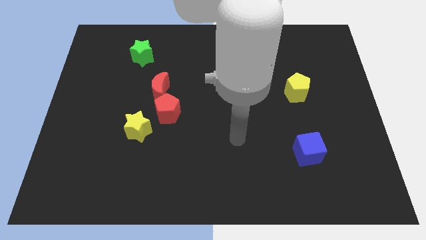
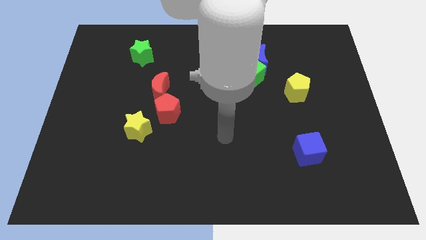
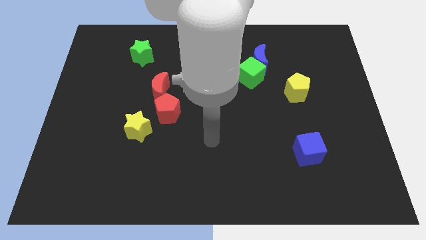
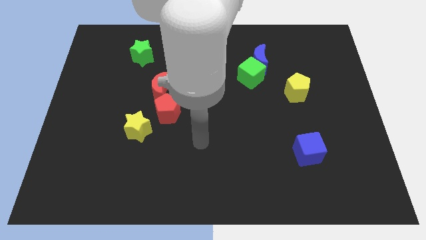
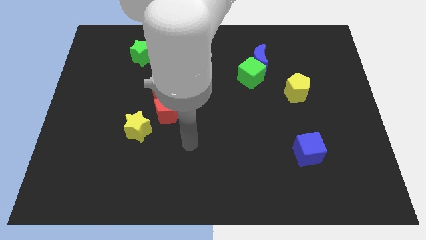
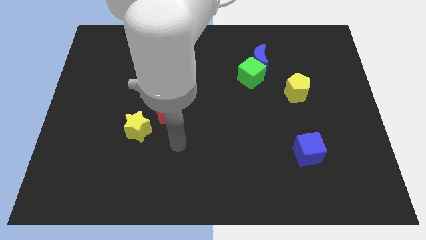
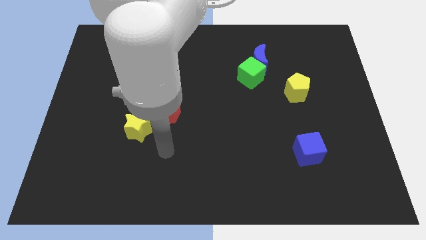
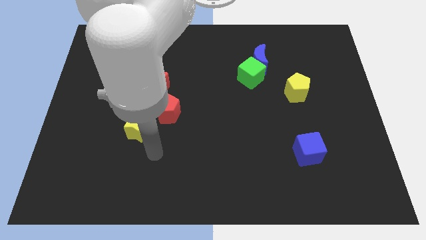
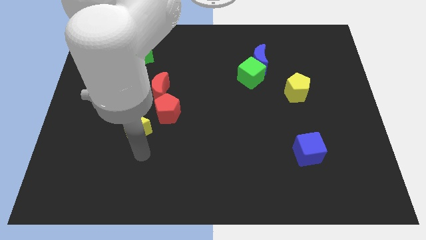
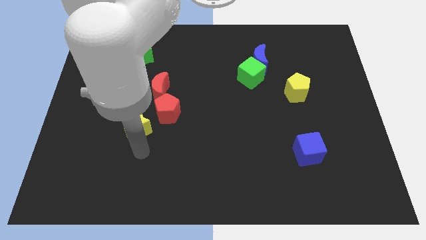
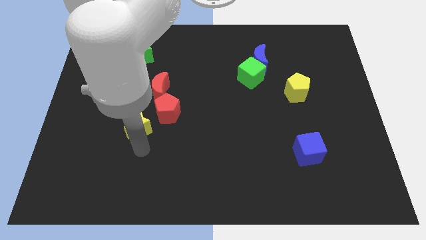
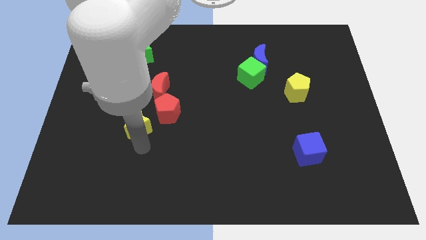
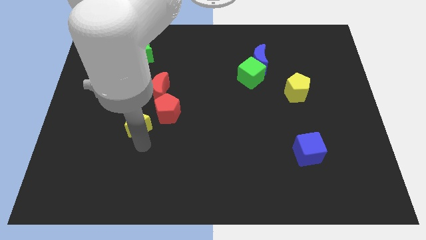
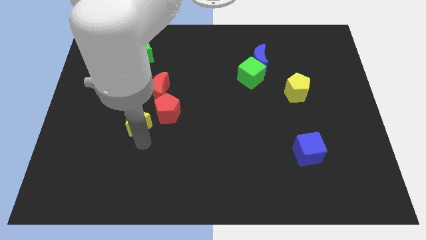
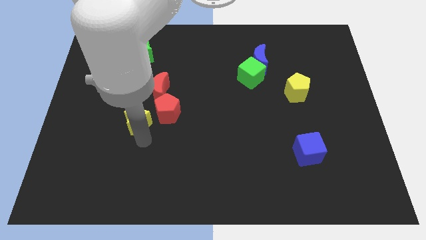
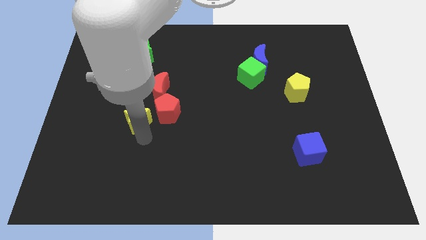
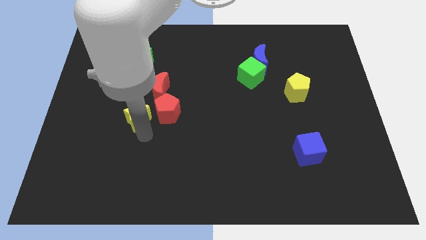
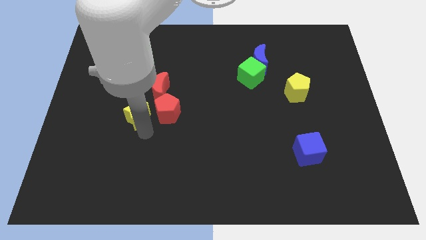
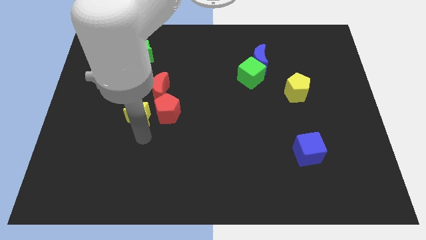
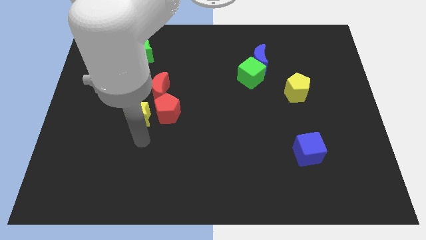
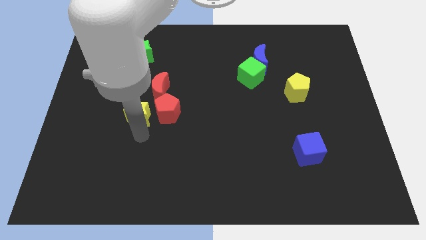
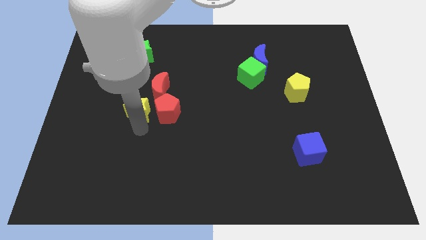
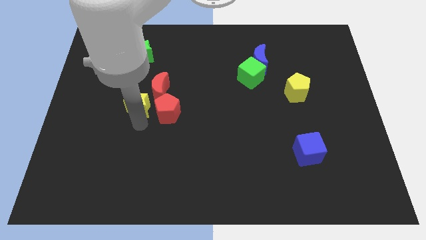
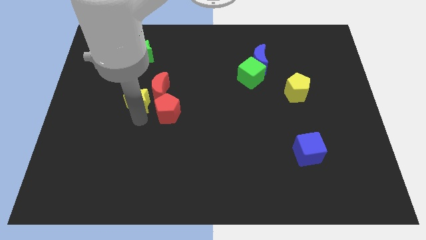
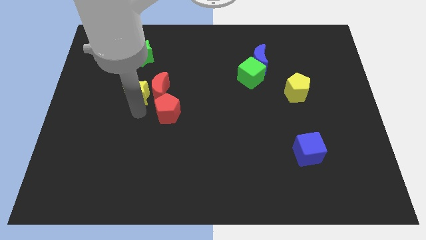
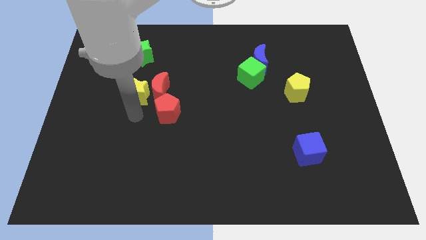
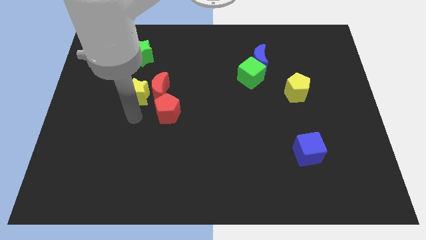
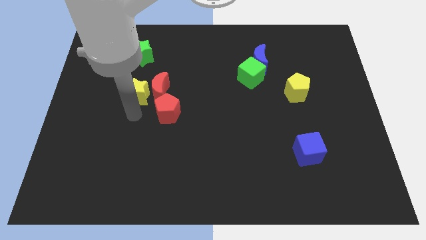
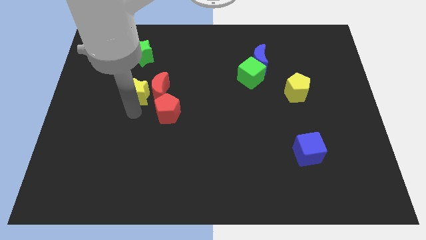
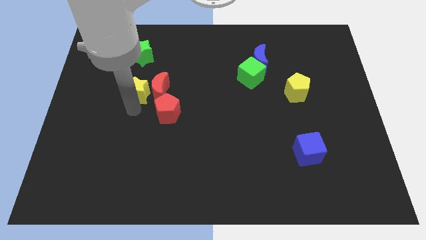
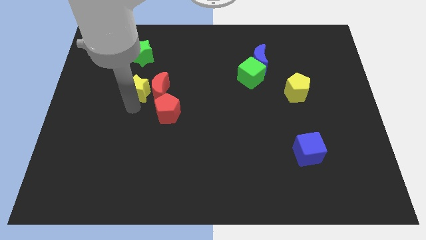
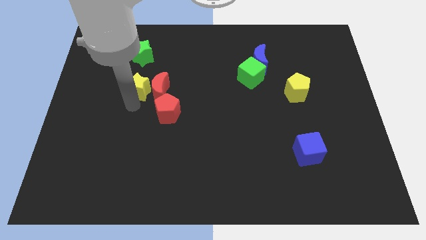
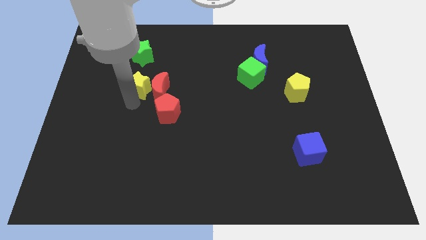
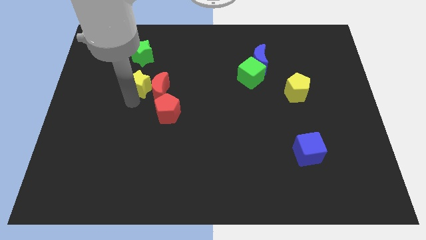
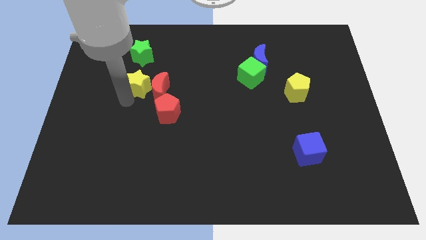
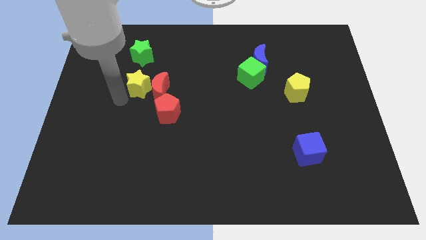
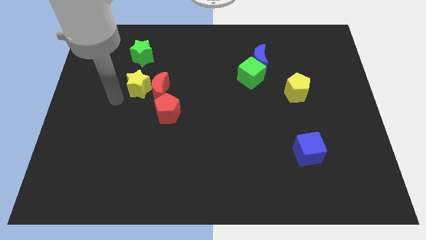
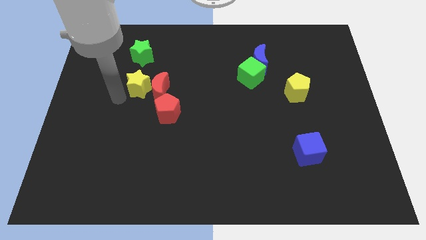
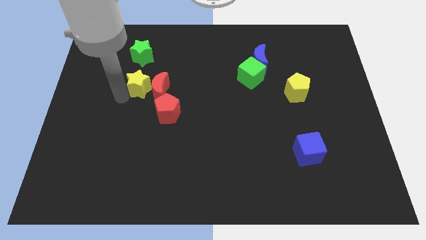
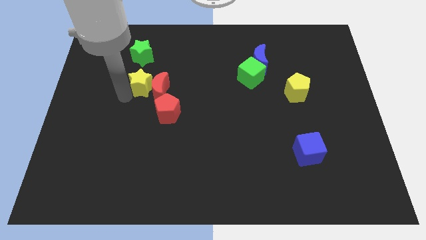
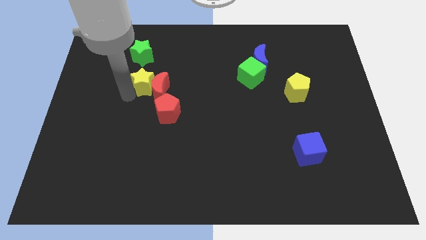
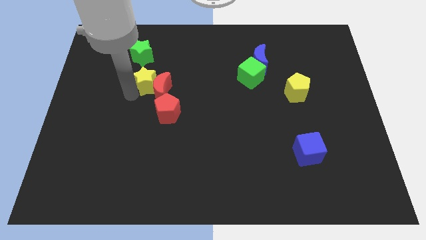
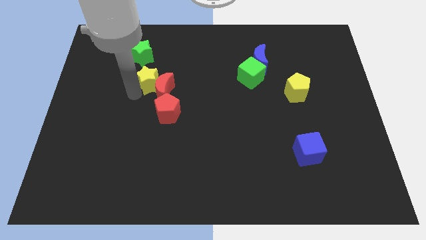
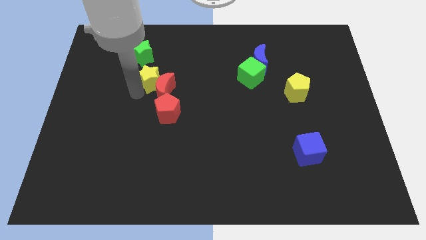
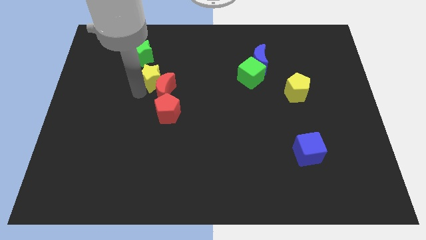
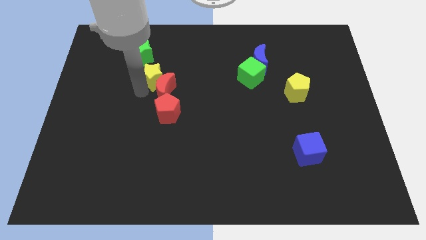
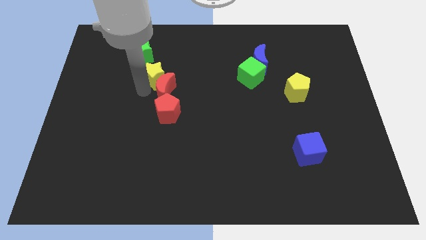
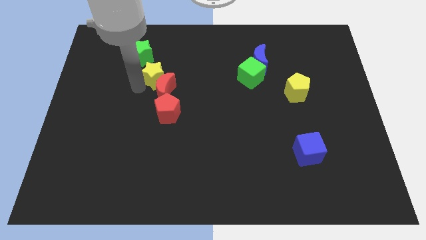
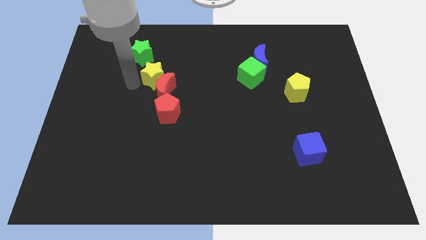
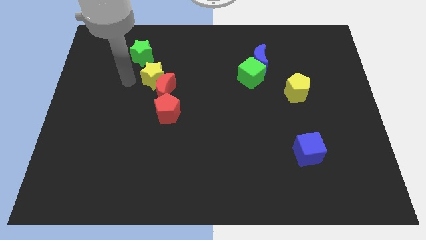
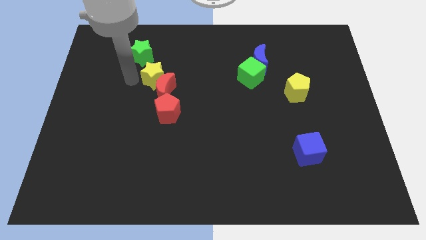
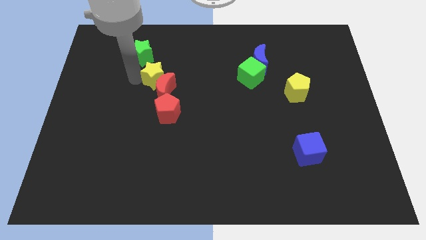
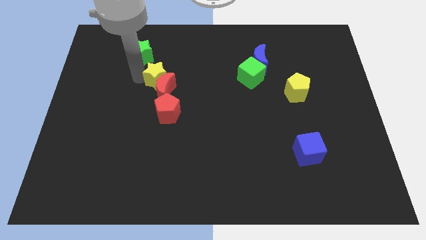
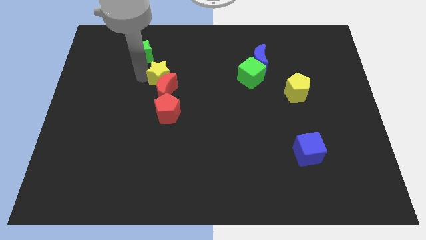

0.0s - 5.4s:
put the yellow star to the top right of the red moon
